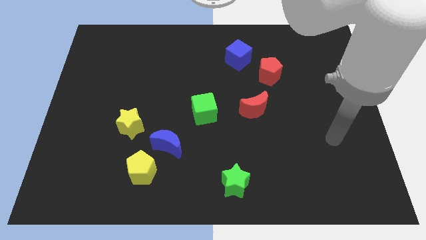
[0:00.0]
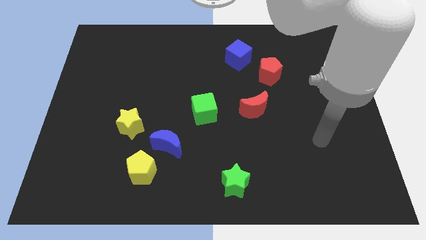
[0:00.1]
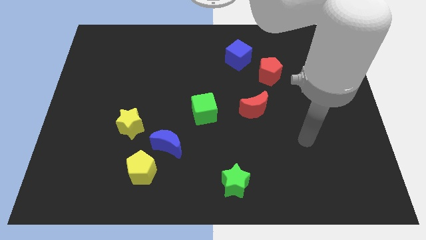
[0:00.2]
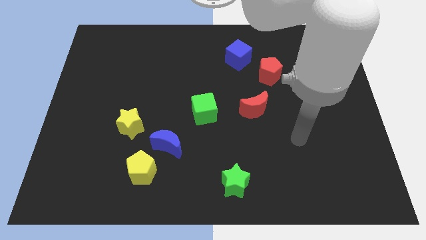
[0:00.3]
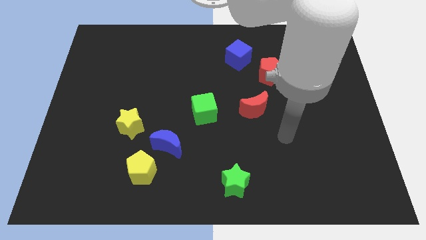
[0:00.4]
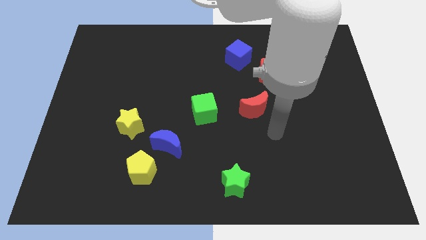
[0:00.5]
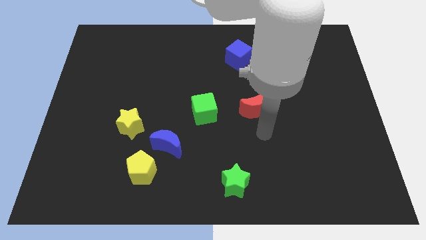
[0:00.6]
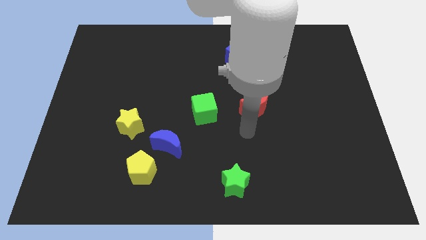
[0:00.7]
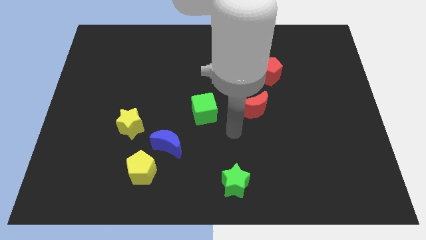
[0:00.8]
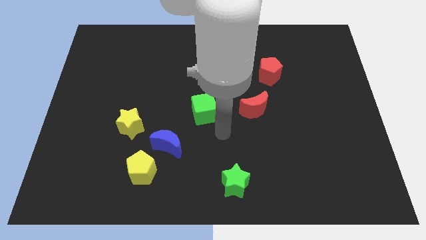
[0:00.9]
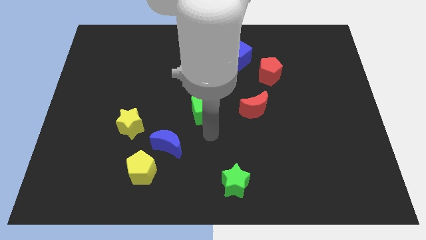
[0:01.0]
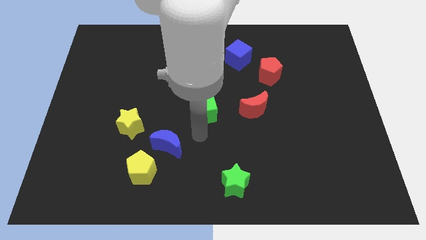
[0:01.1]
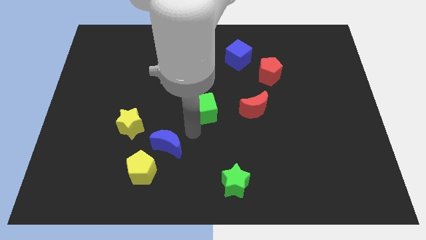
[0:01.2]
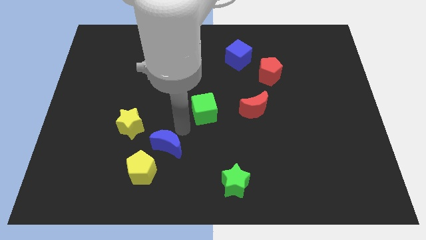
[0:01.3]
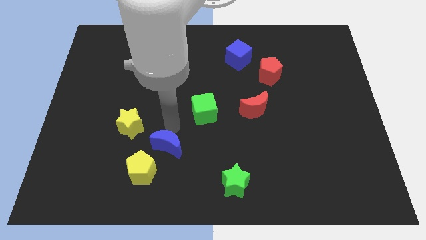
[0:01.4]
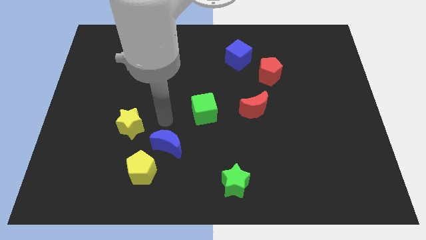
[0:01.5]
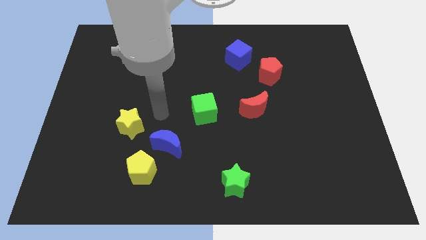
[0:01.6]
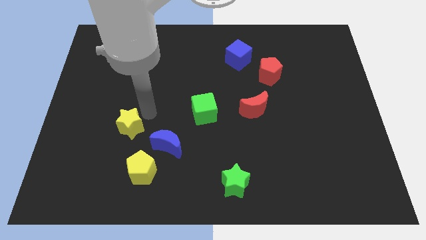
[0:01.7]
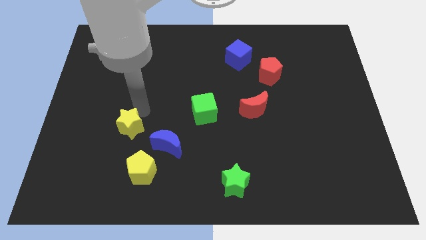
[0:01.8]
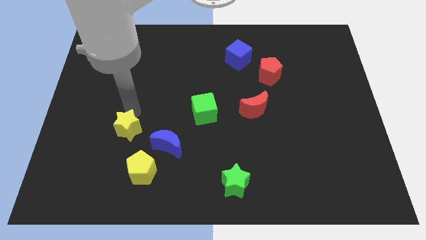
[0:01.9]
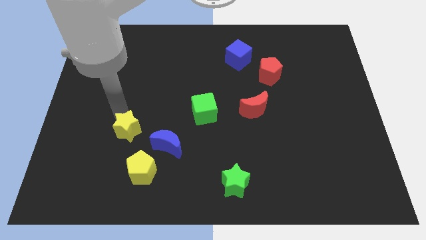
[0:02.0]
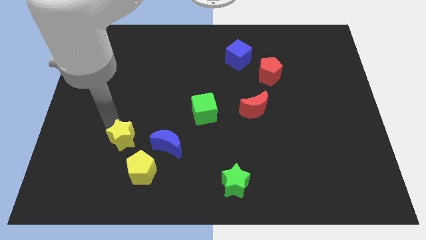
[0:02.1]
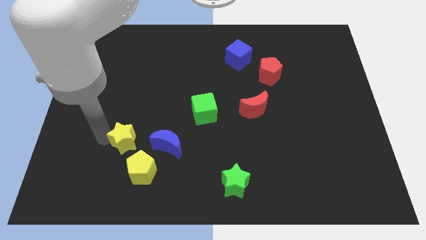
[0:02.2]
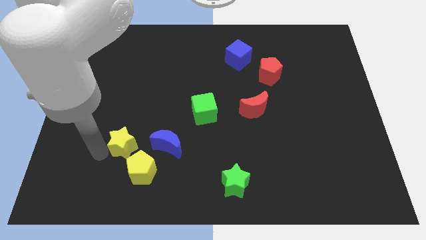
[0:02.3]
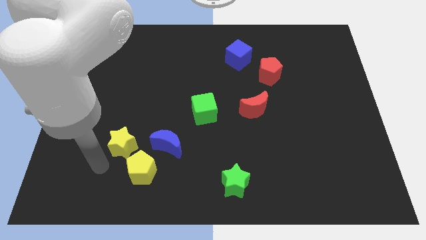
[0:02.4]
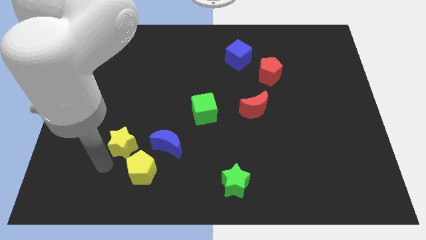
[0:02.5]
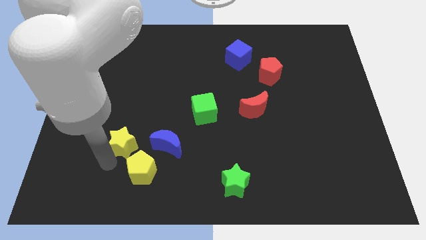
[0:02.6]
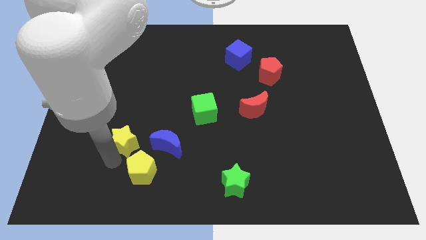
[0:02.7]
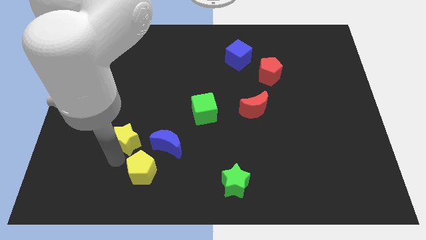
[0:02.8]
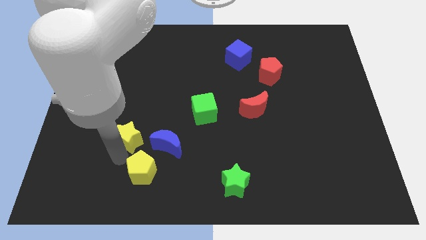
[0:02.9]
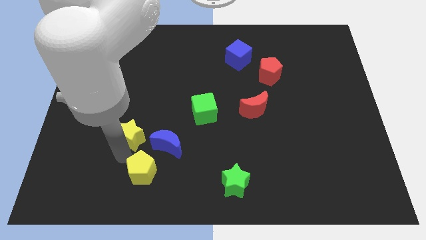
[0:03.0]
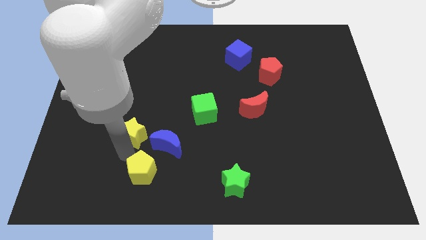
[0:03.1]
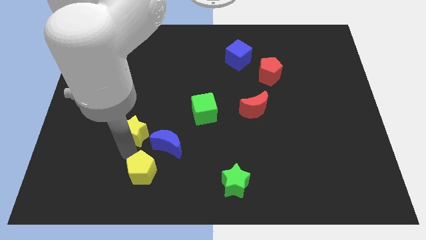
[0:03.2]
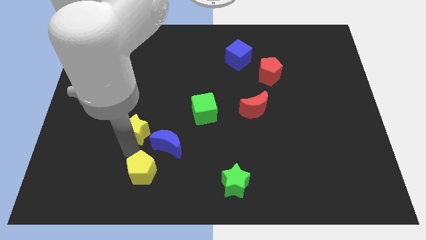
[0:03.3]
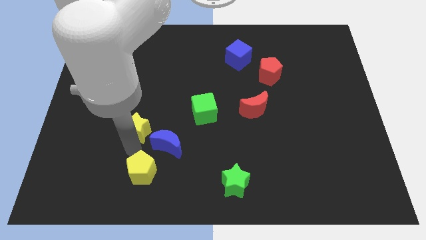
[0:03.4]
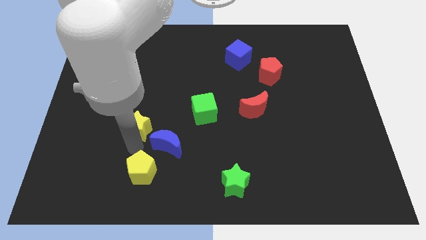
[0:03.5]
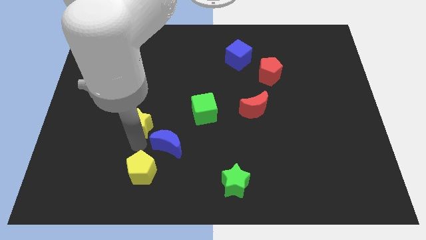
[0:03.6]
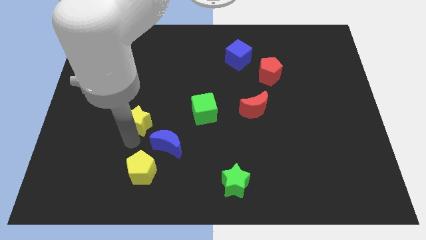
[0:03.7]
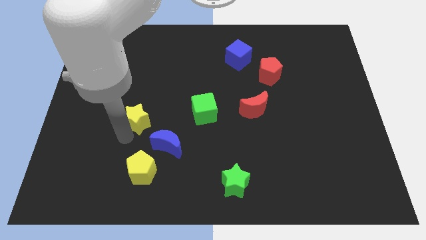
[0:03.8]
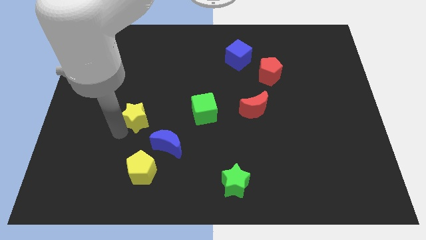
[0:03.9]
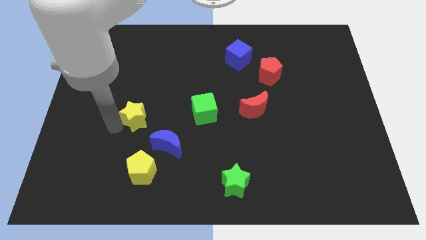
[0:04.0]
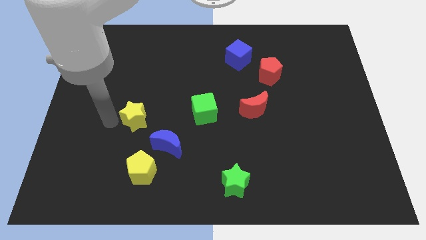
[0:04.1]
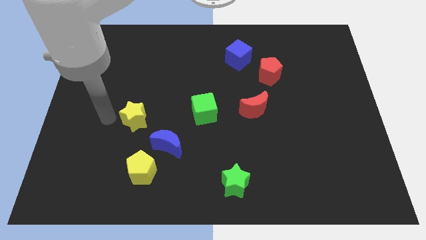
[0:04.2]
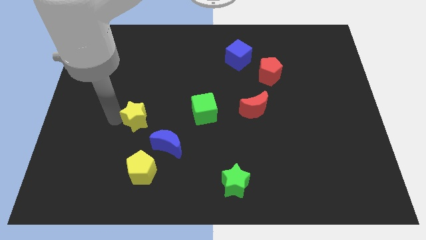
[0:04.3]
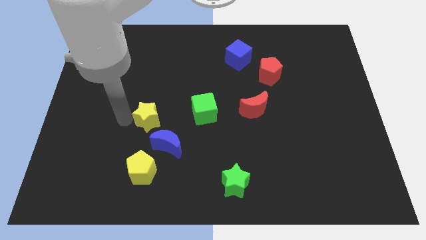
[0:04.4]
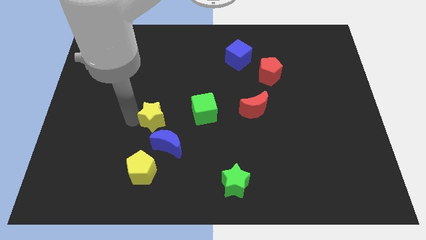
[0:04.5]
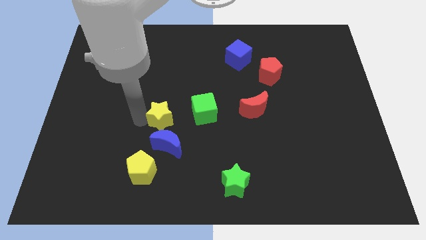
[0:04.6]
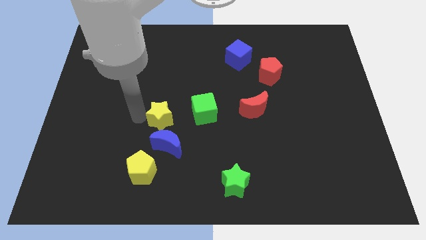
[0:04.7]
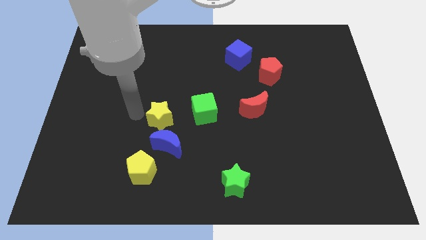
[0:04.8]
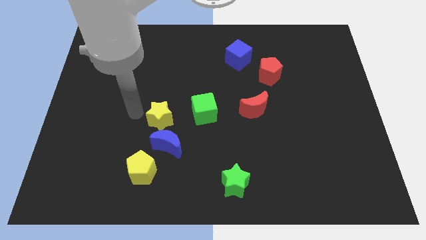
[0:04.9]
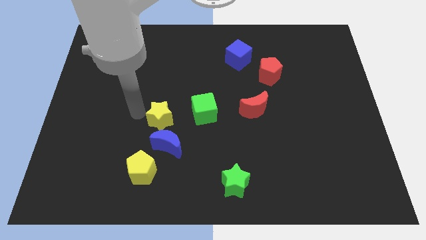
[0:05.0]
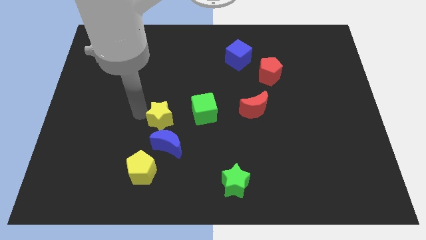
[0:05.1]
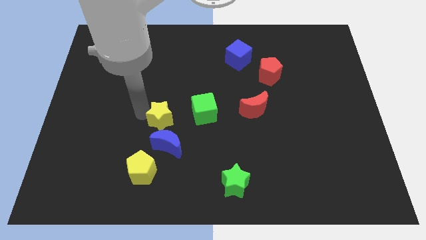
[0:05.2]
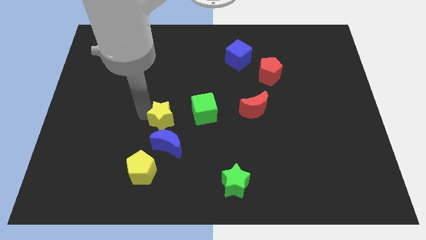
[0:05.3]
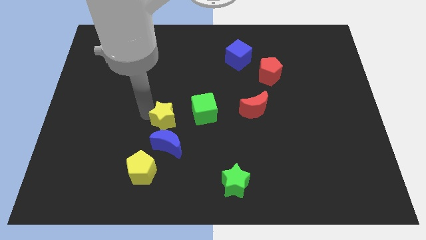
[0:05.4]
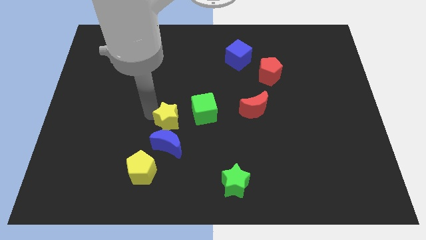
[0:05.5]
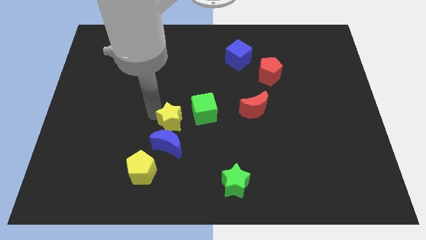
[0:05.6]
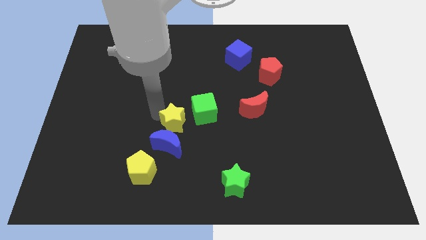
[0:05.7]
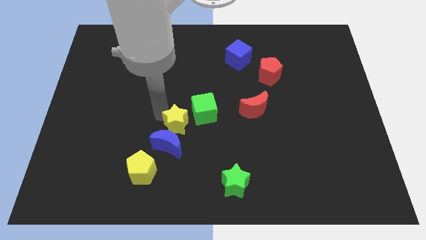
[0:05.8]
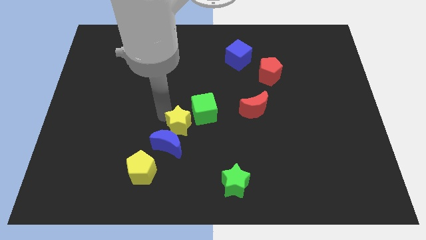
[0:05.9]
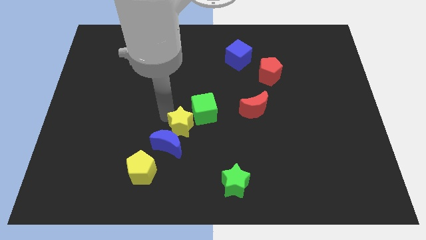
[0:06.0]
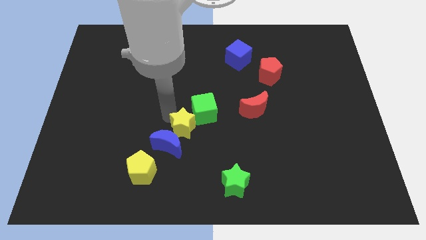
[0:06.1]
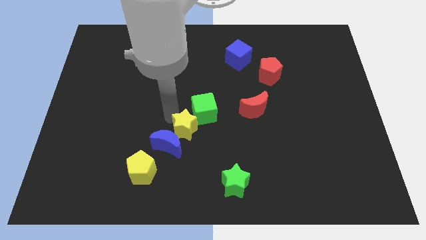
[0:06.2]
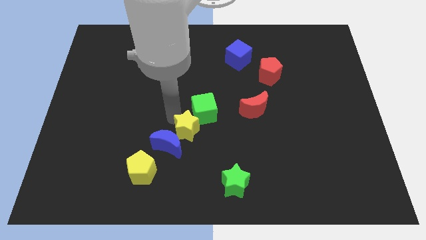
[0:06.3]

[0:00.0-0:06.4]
slide the yellow star diagonally down and to the right a bit

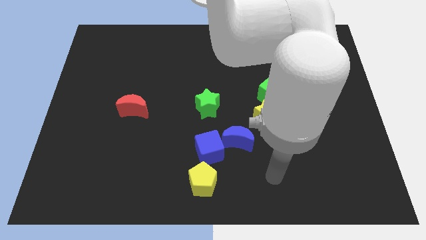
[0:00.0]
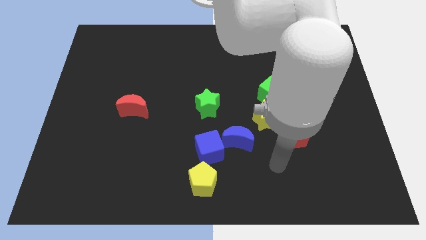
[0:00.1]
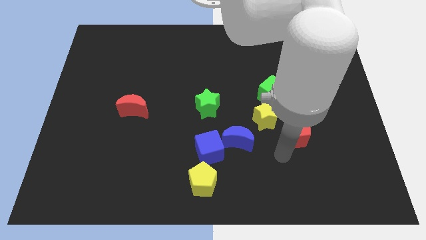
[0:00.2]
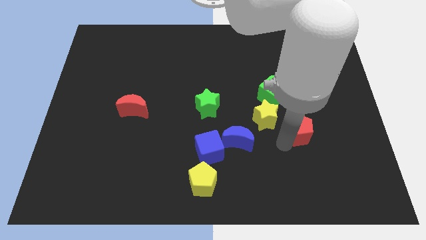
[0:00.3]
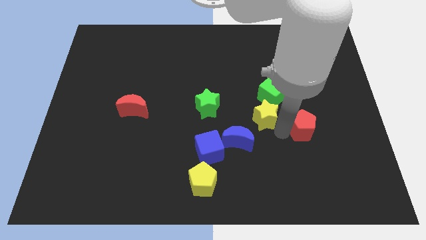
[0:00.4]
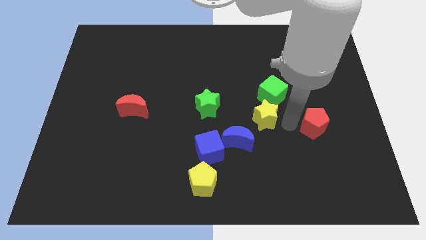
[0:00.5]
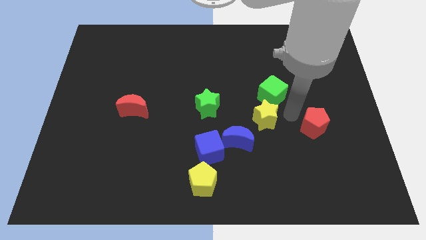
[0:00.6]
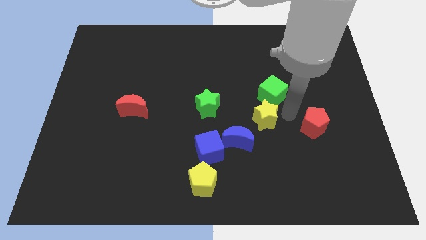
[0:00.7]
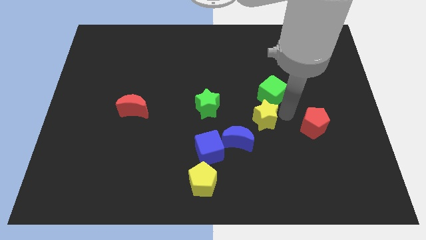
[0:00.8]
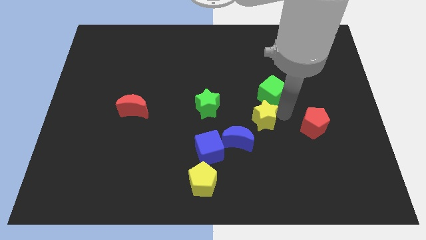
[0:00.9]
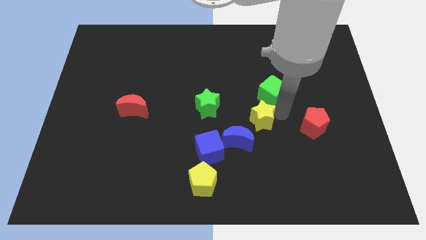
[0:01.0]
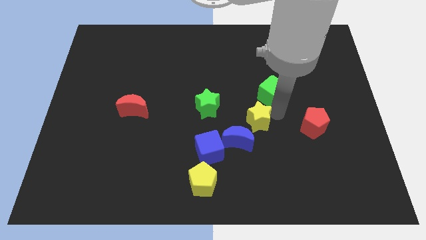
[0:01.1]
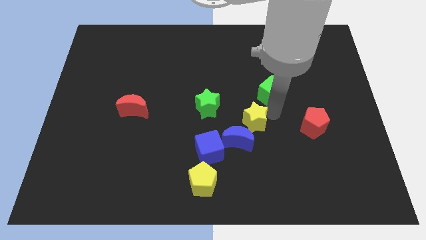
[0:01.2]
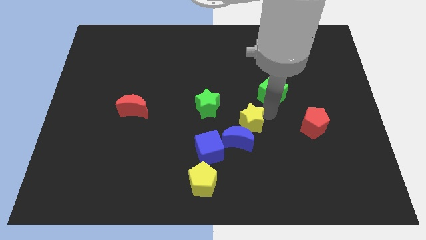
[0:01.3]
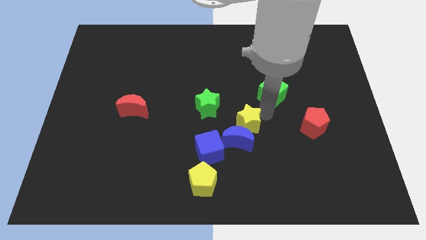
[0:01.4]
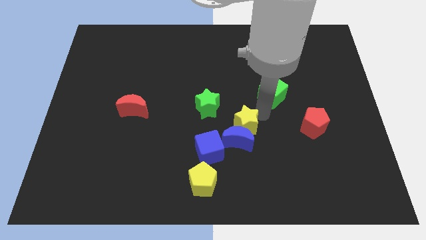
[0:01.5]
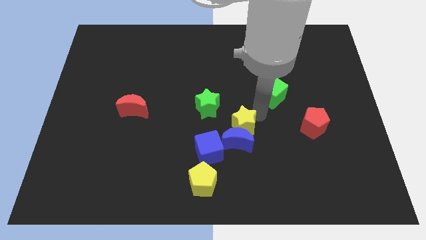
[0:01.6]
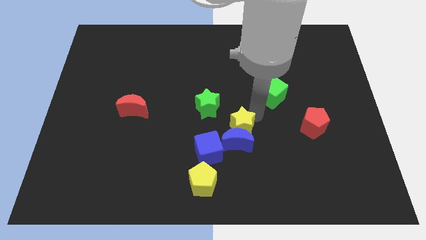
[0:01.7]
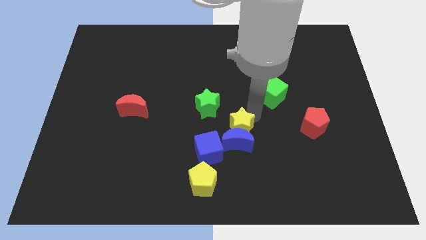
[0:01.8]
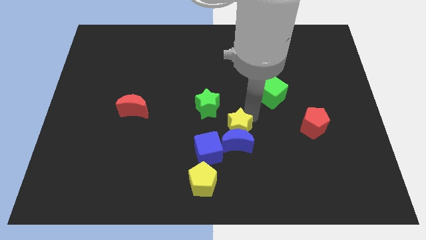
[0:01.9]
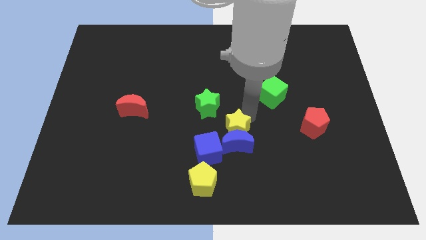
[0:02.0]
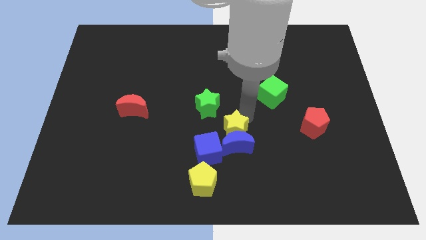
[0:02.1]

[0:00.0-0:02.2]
slightly push the yellow star left
